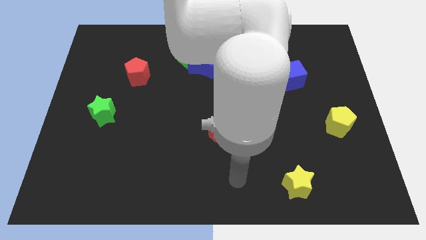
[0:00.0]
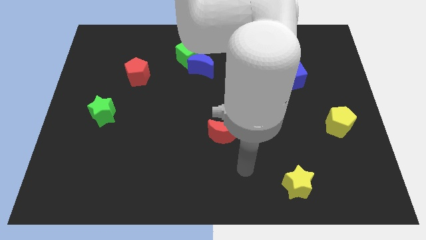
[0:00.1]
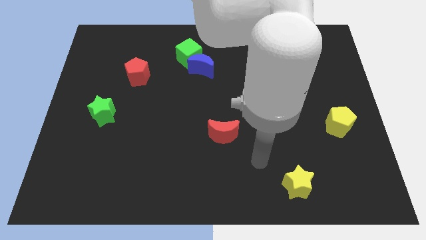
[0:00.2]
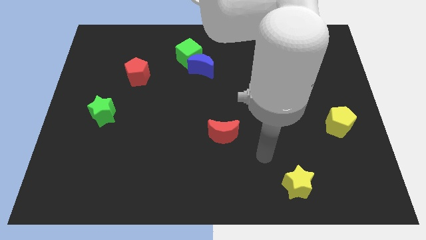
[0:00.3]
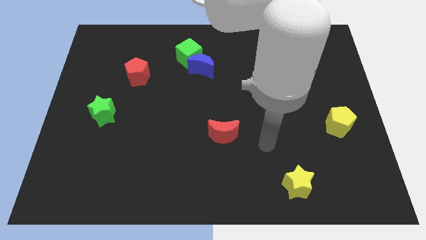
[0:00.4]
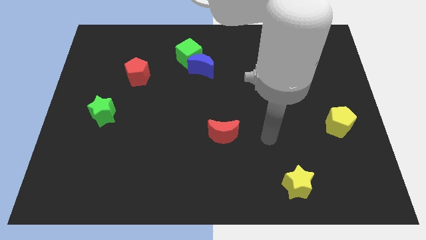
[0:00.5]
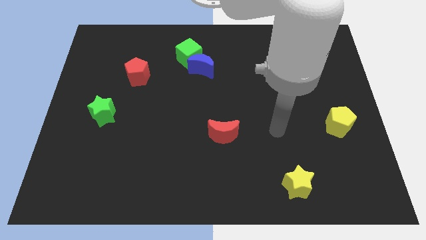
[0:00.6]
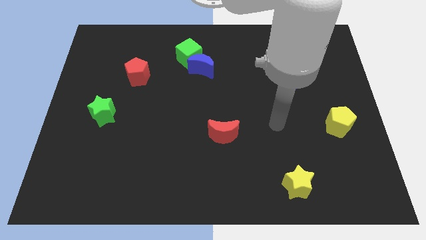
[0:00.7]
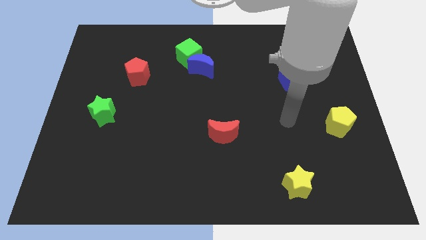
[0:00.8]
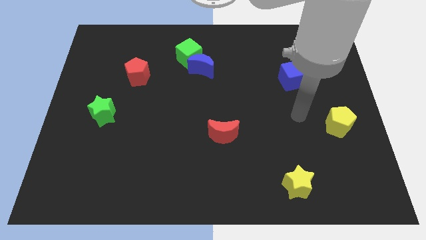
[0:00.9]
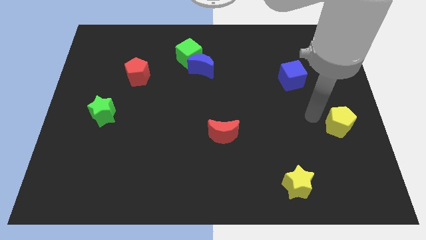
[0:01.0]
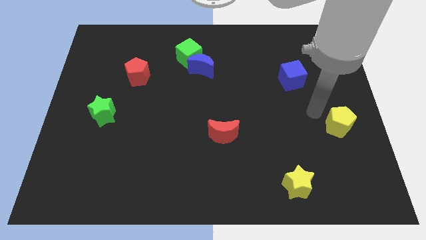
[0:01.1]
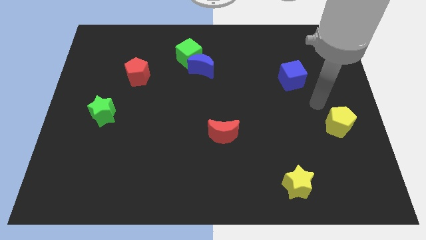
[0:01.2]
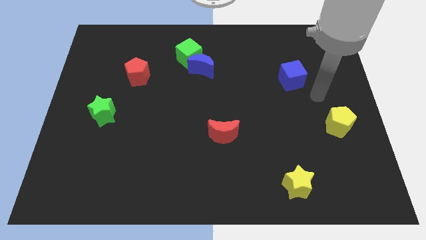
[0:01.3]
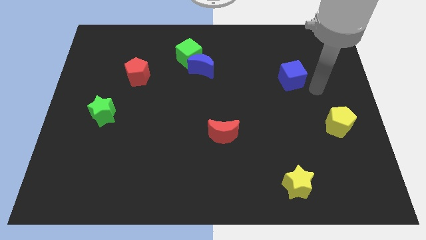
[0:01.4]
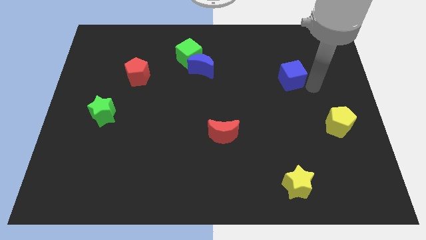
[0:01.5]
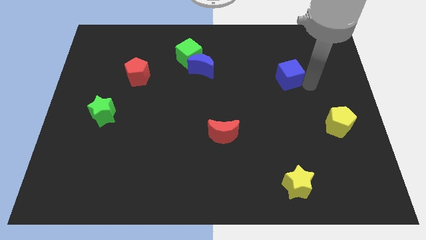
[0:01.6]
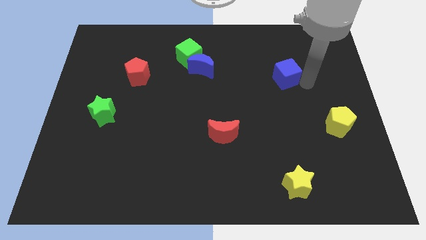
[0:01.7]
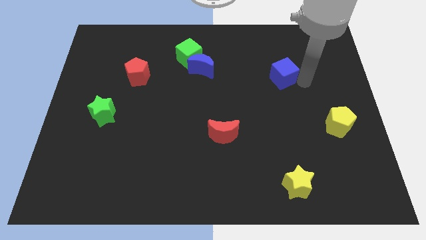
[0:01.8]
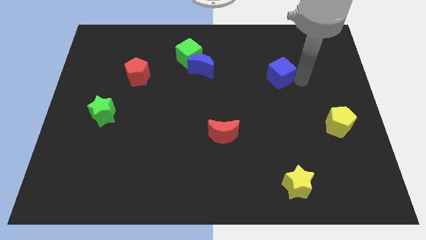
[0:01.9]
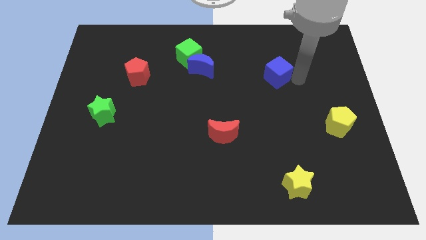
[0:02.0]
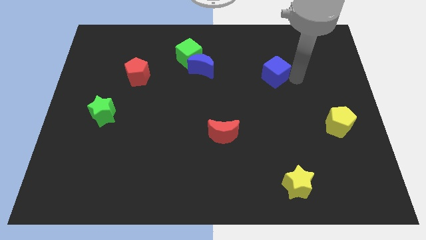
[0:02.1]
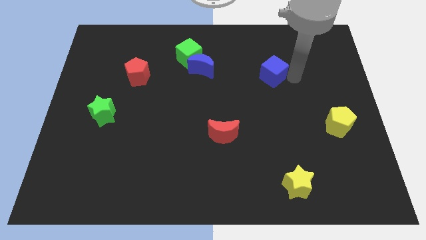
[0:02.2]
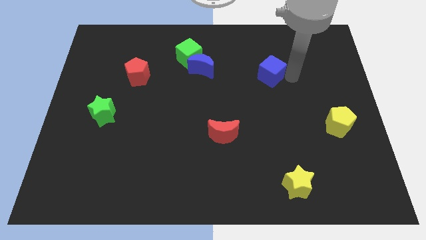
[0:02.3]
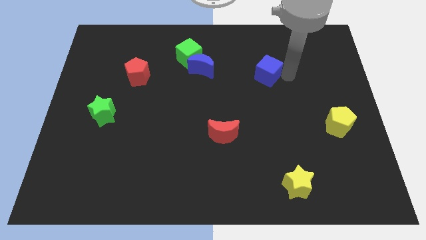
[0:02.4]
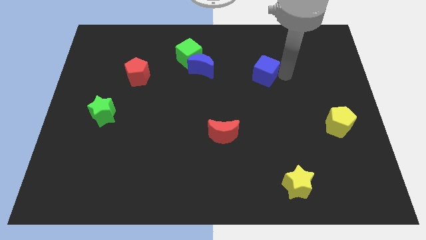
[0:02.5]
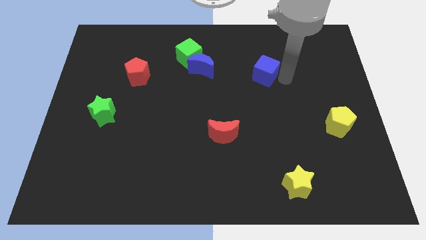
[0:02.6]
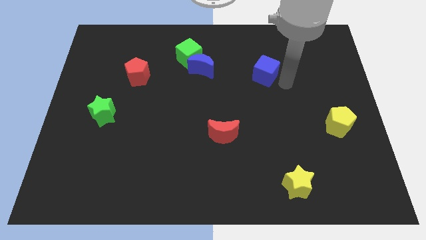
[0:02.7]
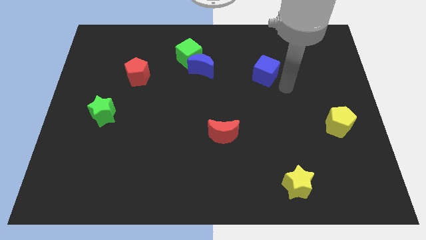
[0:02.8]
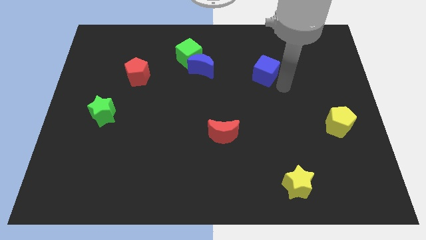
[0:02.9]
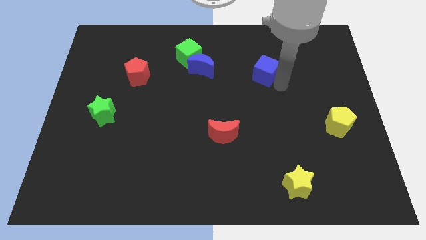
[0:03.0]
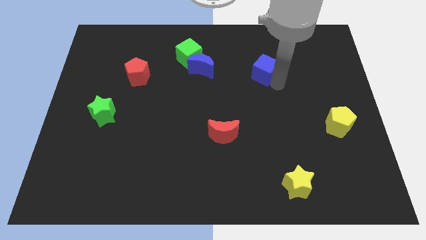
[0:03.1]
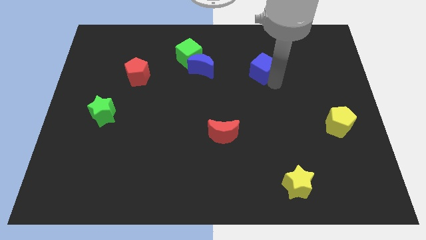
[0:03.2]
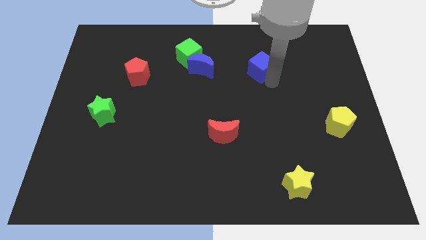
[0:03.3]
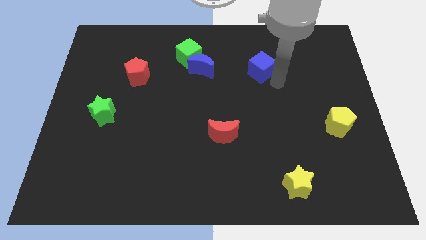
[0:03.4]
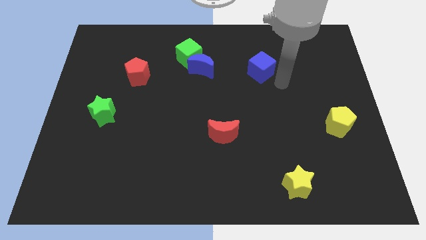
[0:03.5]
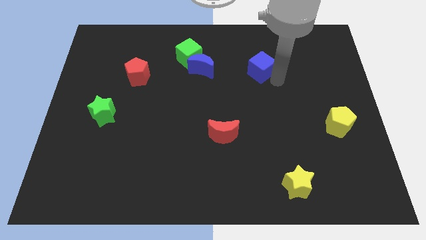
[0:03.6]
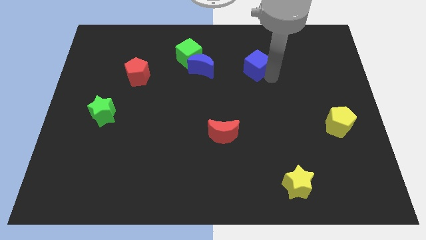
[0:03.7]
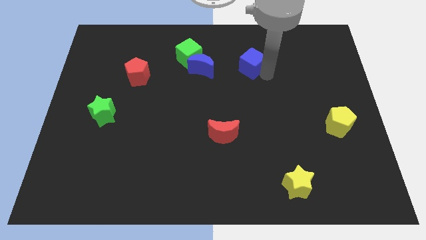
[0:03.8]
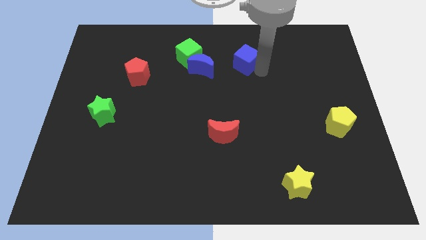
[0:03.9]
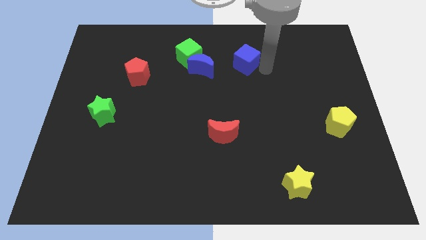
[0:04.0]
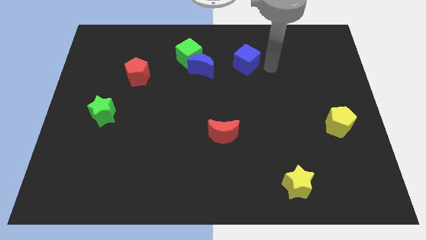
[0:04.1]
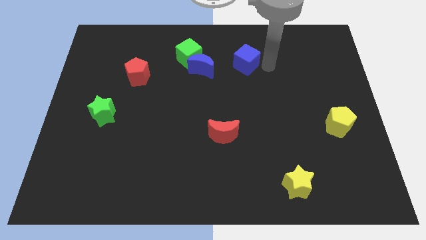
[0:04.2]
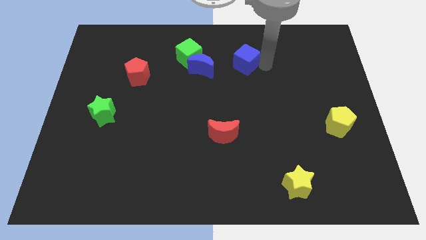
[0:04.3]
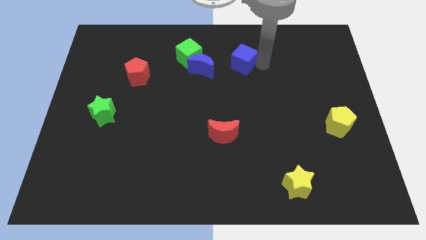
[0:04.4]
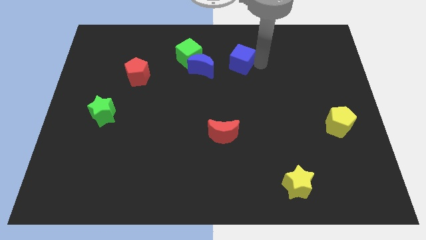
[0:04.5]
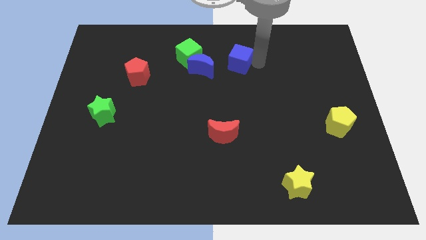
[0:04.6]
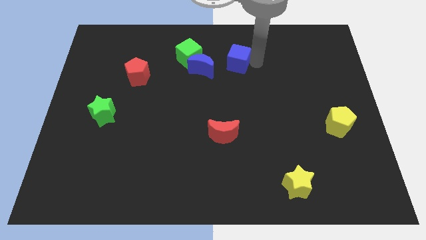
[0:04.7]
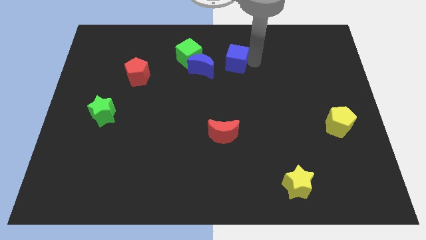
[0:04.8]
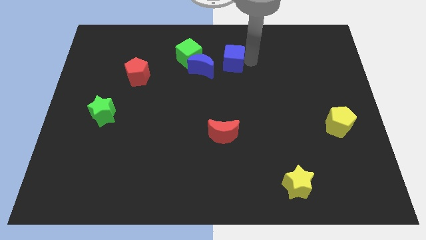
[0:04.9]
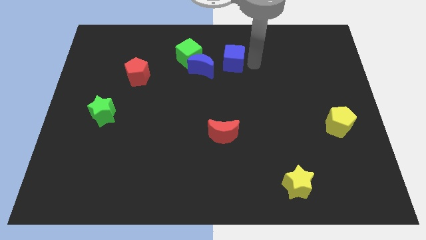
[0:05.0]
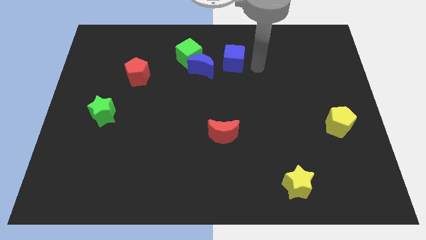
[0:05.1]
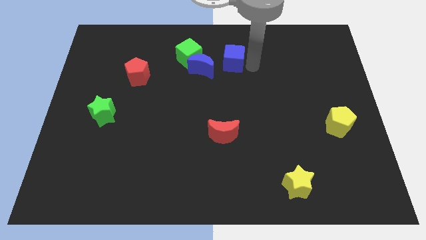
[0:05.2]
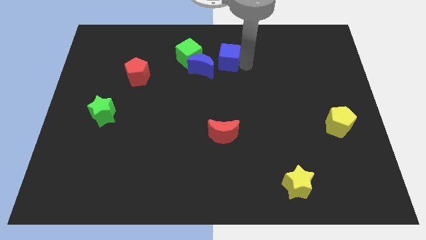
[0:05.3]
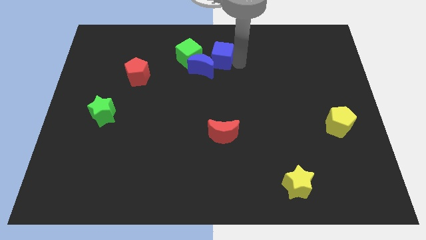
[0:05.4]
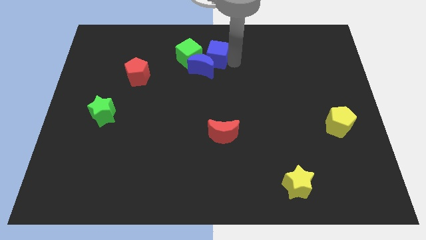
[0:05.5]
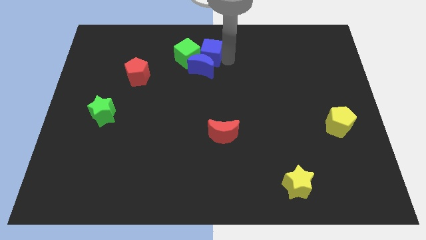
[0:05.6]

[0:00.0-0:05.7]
put the blue cube close to the green cube
